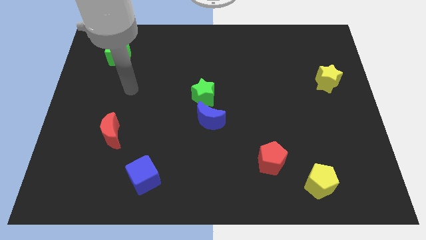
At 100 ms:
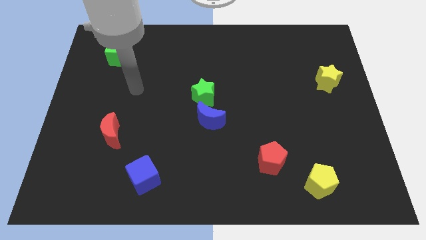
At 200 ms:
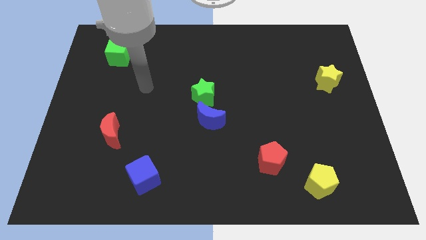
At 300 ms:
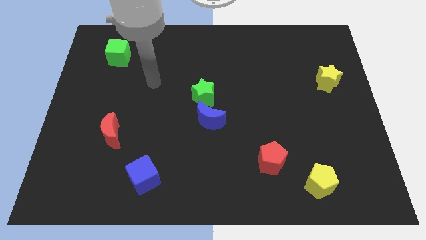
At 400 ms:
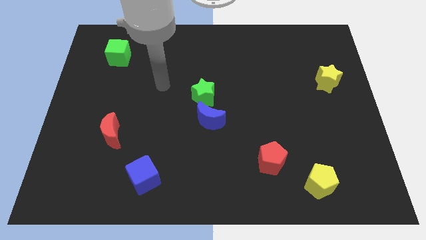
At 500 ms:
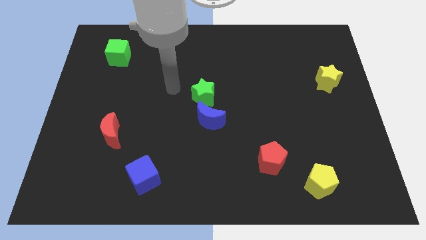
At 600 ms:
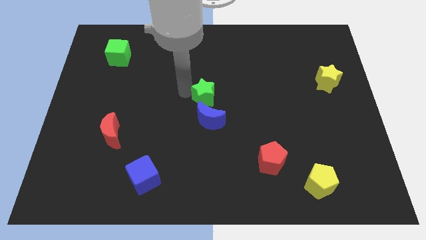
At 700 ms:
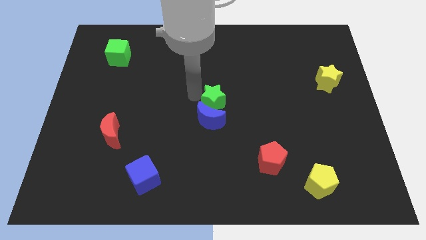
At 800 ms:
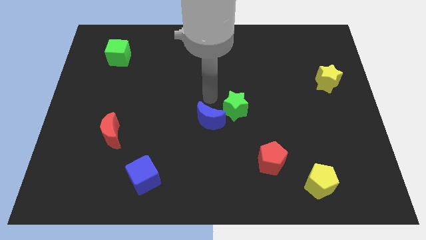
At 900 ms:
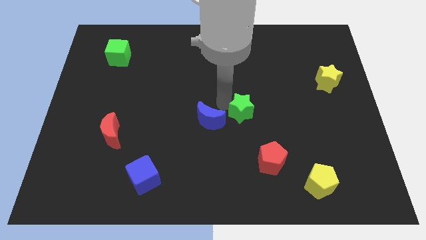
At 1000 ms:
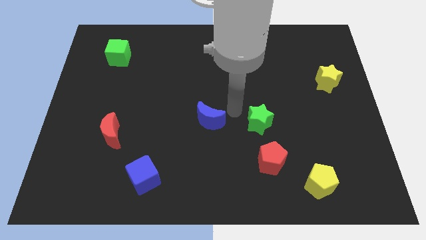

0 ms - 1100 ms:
separate the blue moon from the green star

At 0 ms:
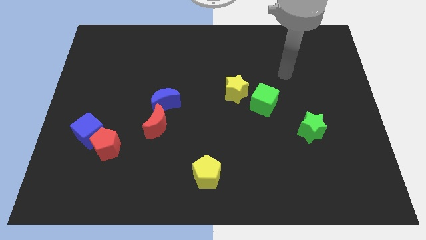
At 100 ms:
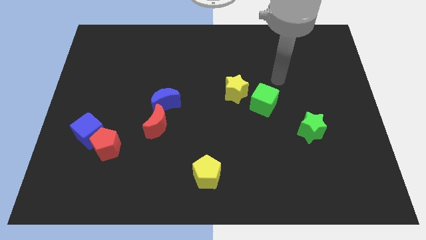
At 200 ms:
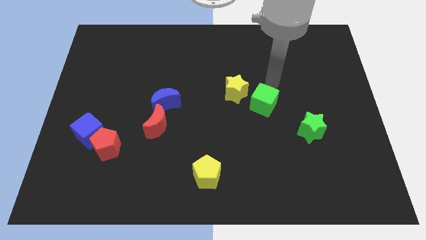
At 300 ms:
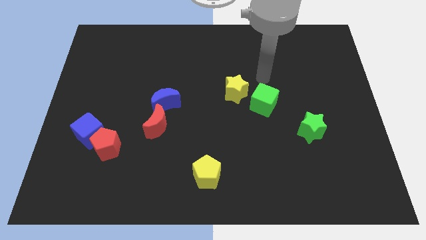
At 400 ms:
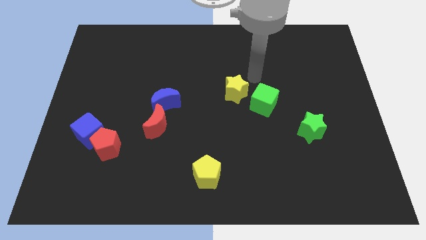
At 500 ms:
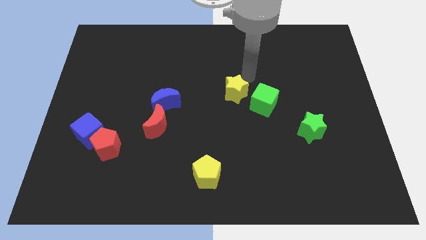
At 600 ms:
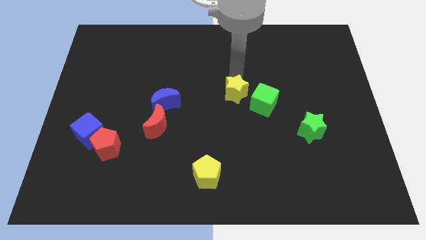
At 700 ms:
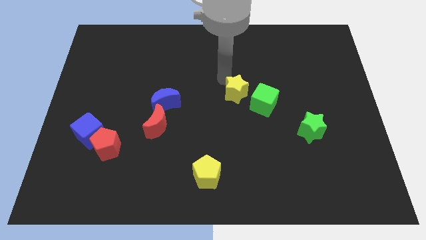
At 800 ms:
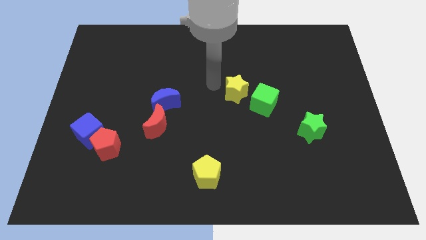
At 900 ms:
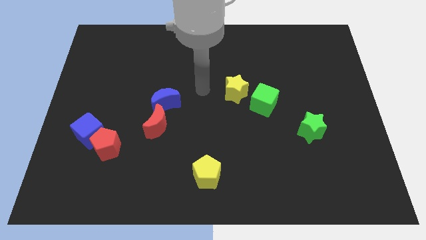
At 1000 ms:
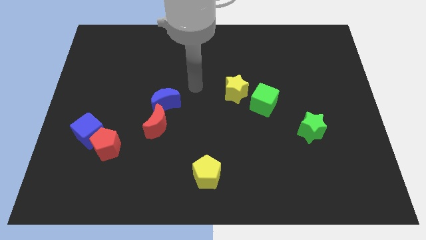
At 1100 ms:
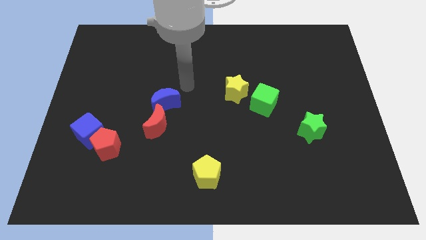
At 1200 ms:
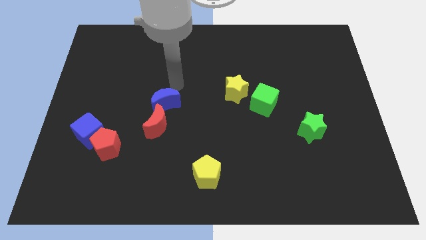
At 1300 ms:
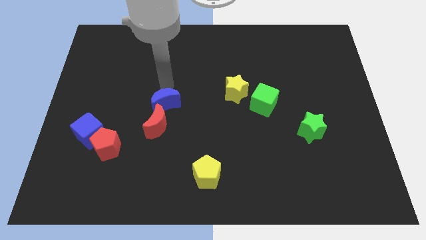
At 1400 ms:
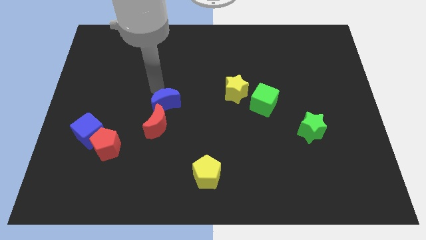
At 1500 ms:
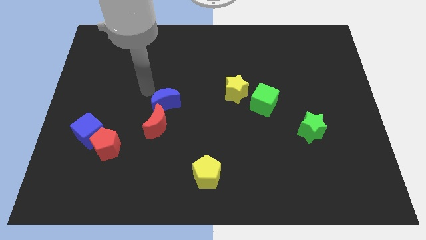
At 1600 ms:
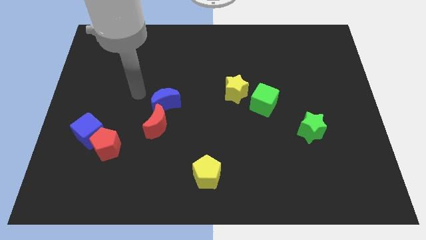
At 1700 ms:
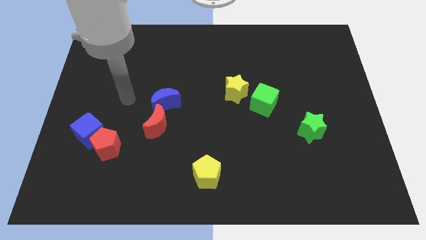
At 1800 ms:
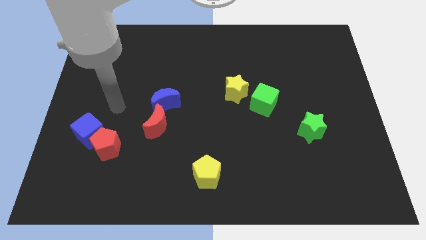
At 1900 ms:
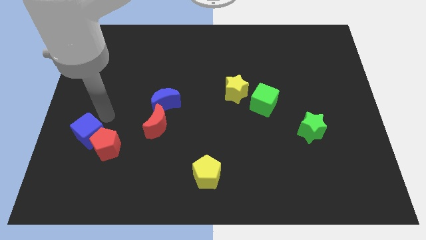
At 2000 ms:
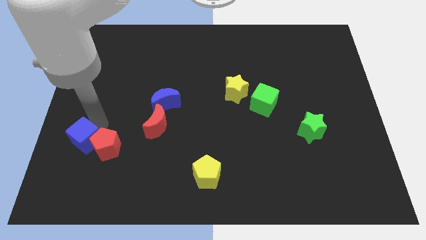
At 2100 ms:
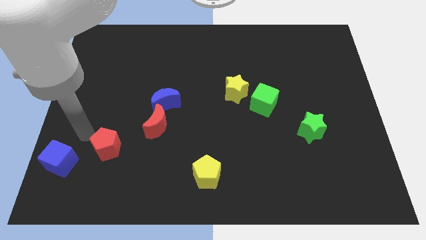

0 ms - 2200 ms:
move the red pentagon away from the blue cube

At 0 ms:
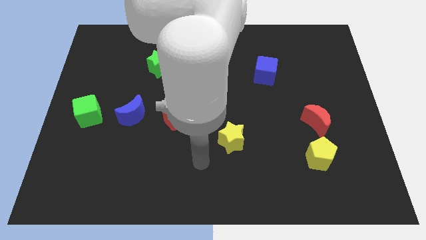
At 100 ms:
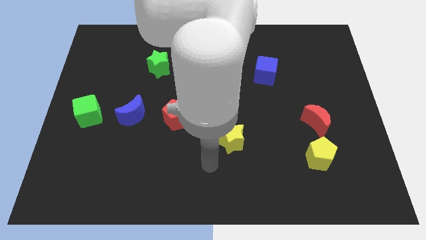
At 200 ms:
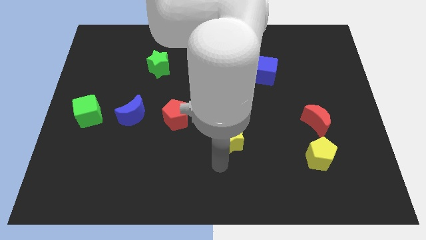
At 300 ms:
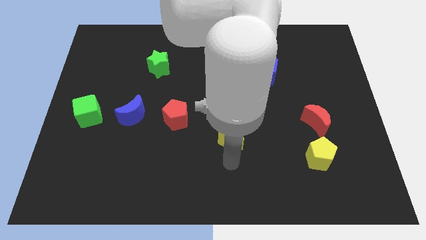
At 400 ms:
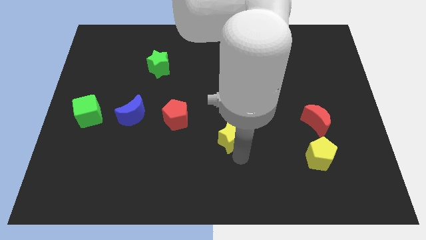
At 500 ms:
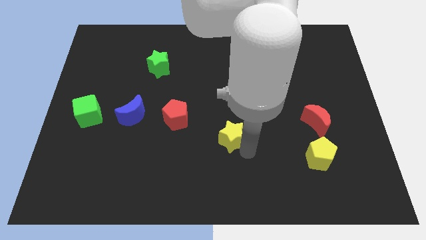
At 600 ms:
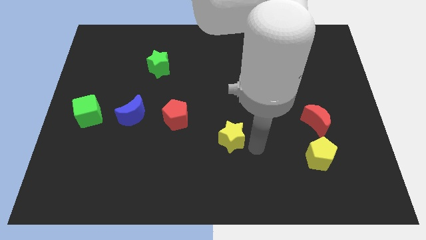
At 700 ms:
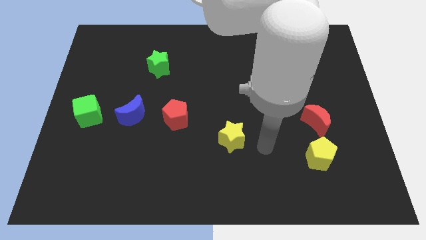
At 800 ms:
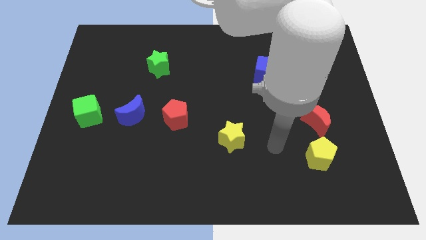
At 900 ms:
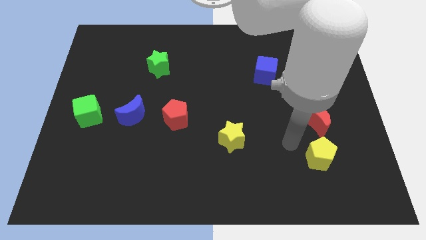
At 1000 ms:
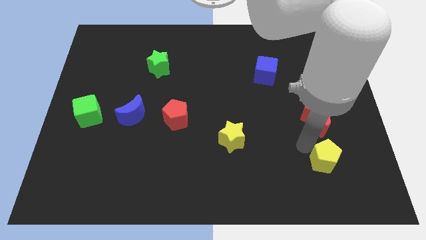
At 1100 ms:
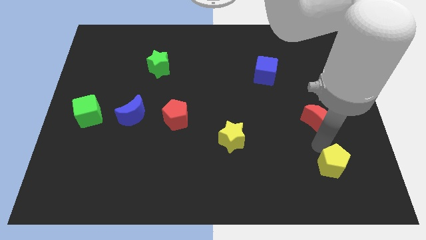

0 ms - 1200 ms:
pull the red moon apart from the yellow pentagon

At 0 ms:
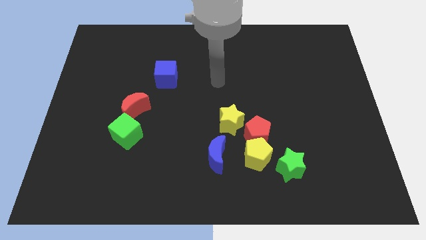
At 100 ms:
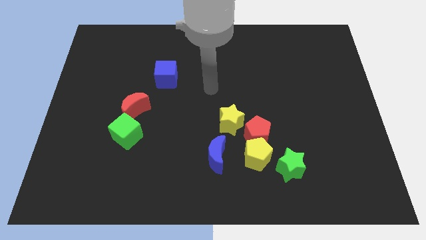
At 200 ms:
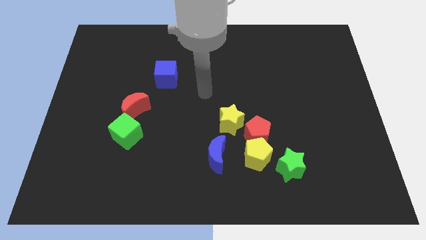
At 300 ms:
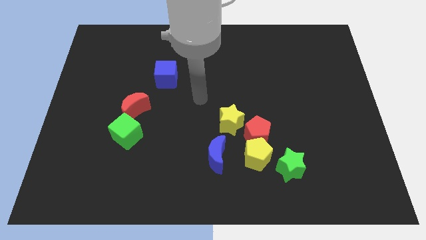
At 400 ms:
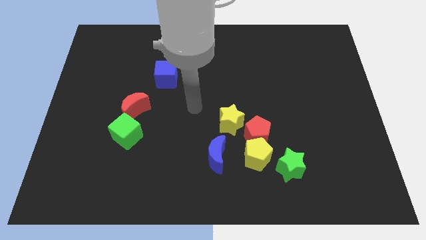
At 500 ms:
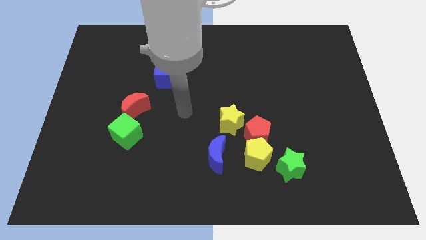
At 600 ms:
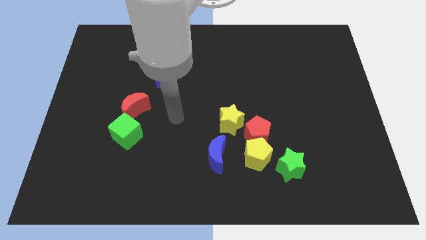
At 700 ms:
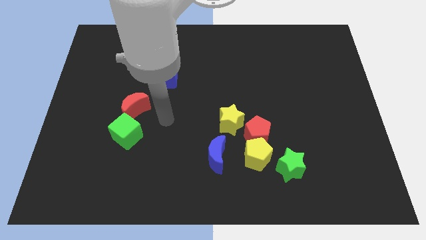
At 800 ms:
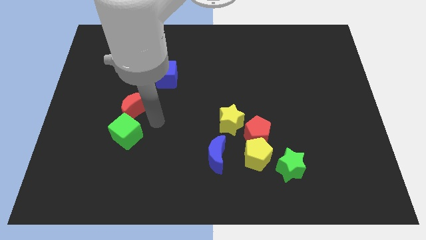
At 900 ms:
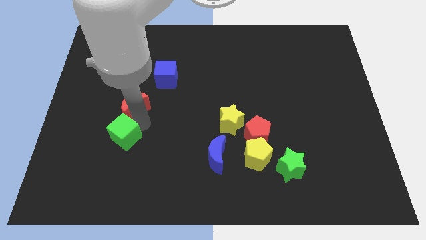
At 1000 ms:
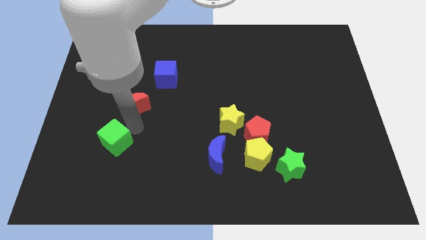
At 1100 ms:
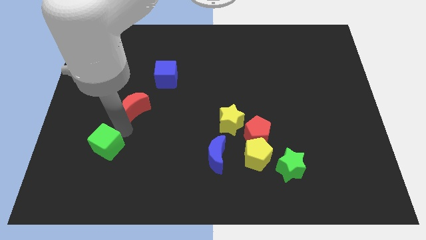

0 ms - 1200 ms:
move the red moon away from the green cube

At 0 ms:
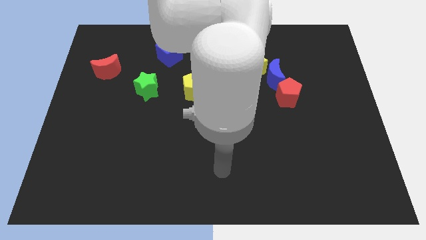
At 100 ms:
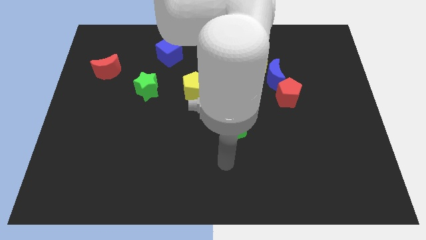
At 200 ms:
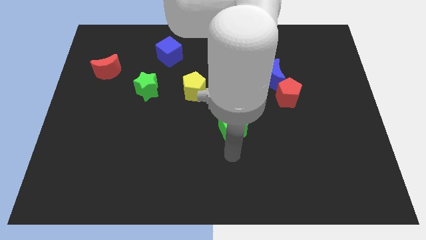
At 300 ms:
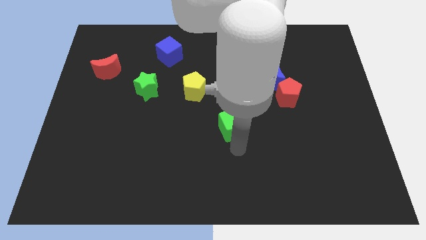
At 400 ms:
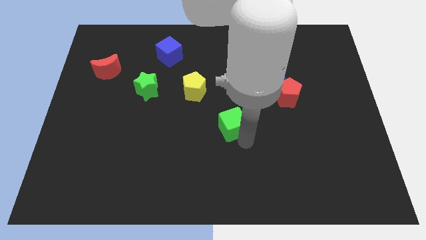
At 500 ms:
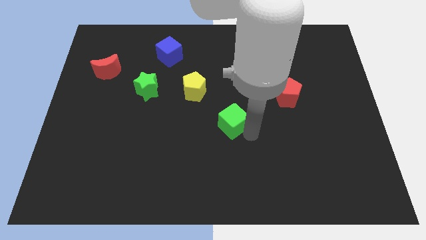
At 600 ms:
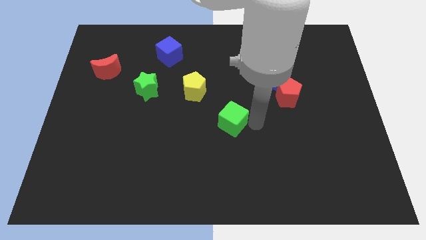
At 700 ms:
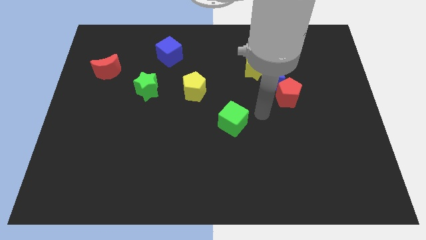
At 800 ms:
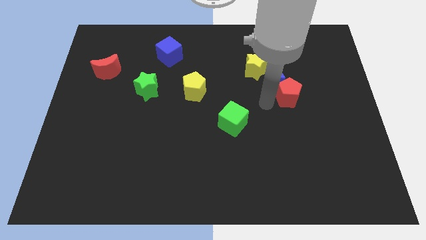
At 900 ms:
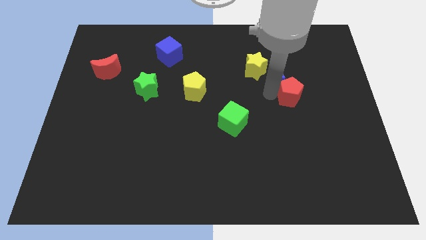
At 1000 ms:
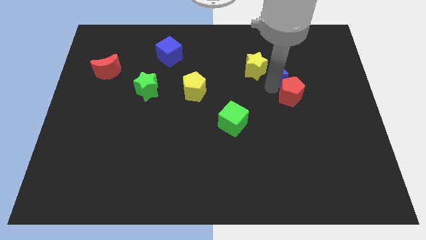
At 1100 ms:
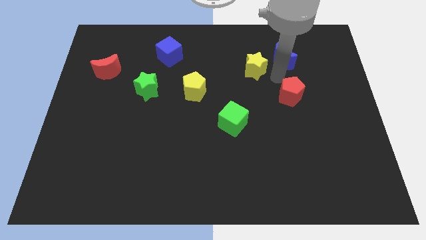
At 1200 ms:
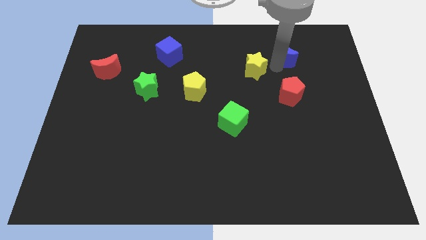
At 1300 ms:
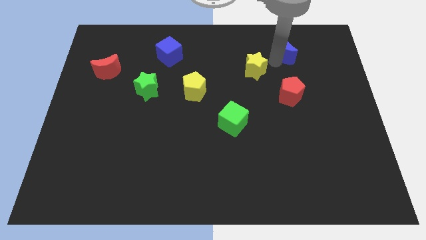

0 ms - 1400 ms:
pull the yellow star apart from the blue moon

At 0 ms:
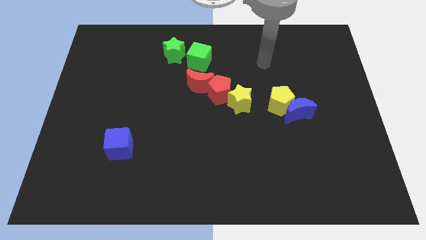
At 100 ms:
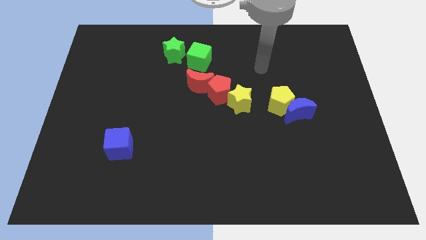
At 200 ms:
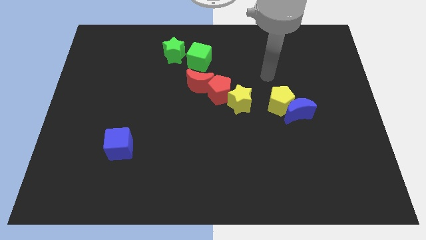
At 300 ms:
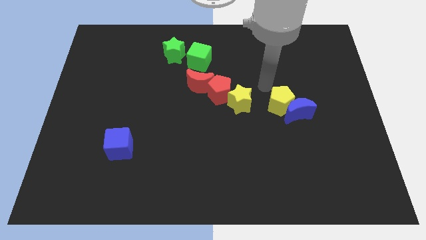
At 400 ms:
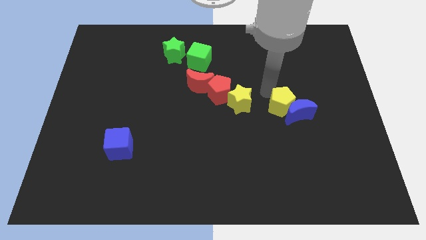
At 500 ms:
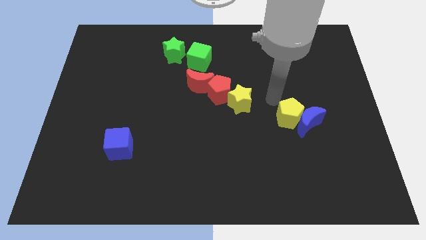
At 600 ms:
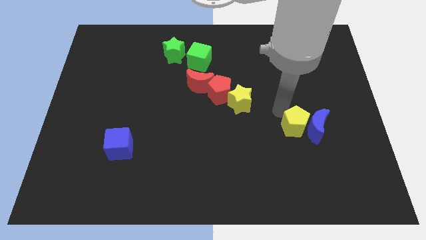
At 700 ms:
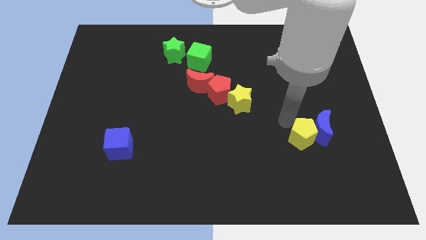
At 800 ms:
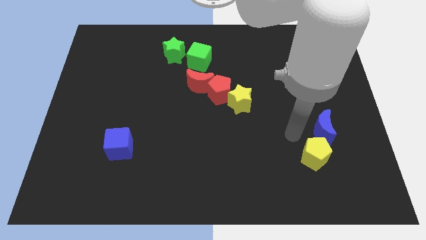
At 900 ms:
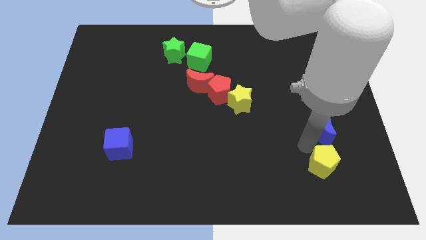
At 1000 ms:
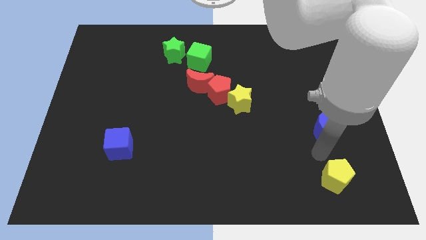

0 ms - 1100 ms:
move the blue moon away from the yellow pentagon

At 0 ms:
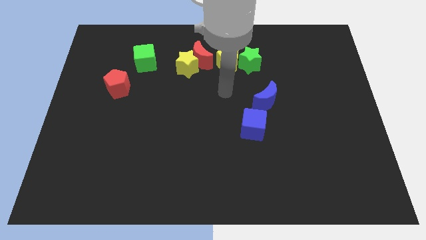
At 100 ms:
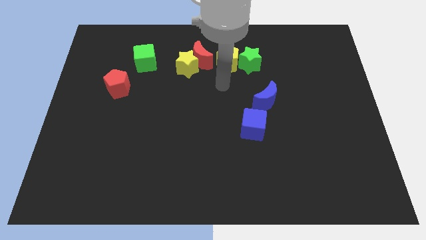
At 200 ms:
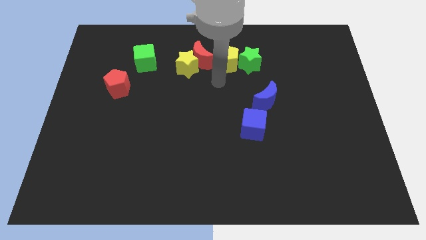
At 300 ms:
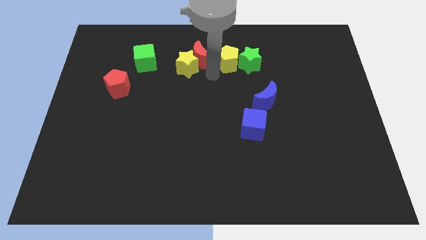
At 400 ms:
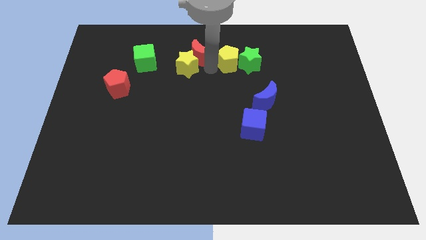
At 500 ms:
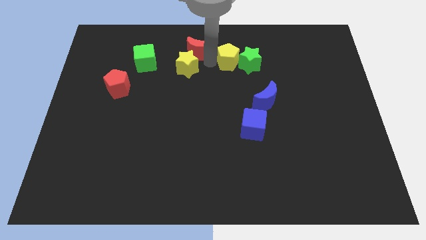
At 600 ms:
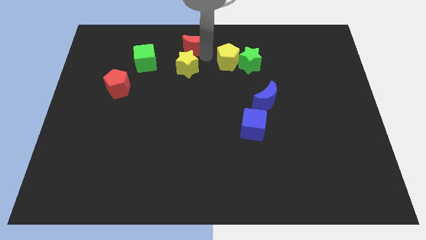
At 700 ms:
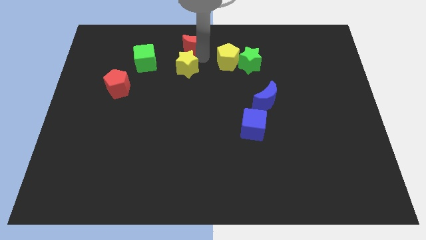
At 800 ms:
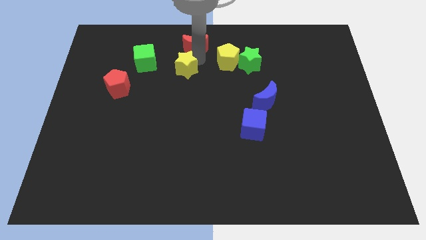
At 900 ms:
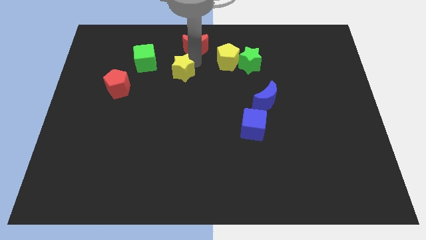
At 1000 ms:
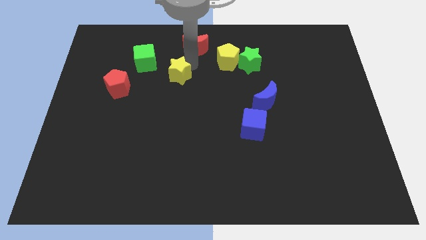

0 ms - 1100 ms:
move the yellow star away from the red moon

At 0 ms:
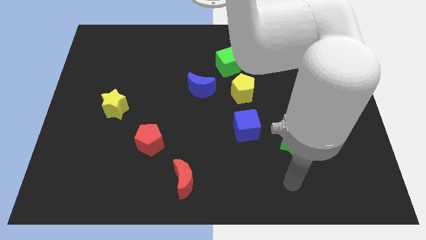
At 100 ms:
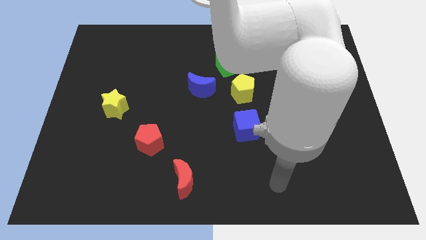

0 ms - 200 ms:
pull the green cube apart from the yellow pentagon
